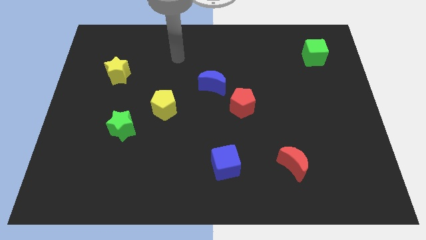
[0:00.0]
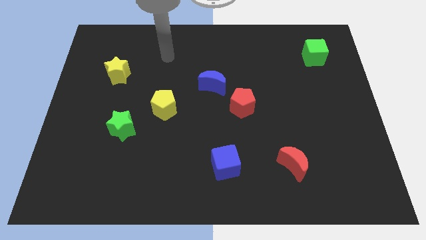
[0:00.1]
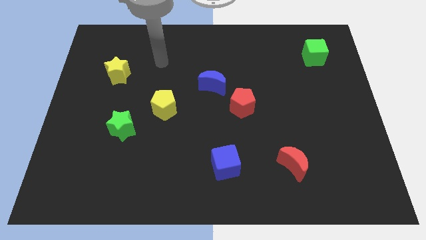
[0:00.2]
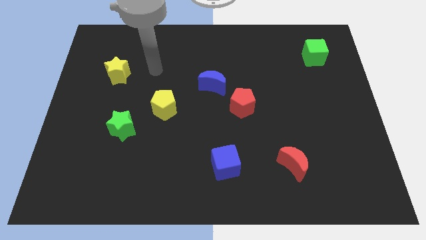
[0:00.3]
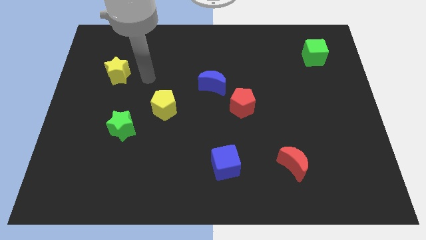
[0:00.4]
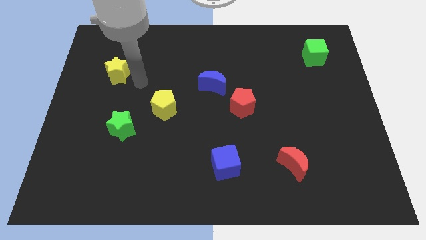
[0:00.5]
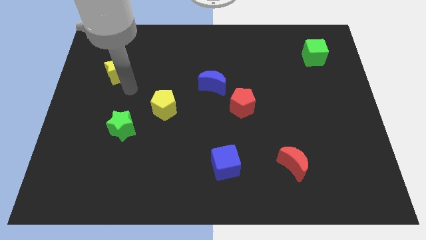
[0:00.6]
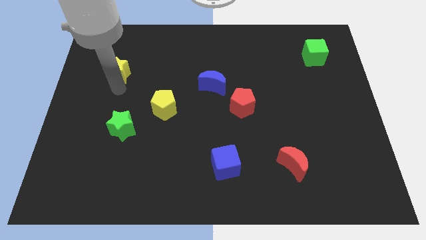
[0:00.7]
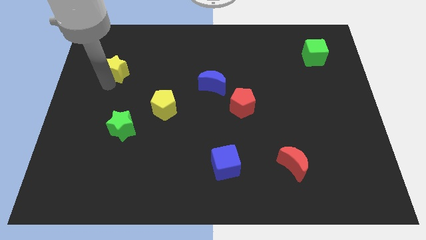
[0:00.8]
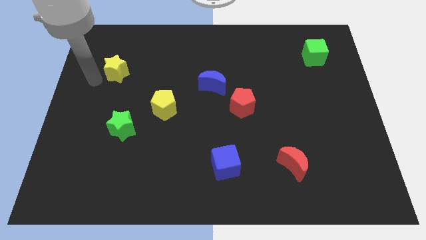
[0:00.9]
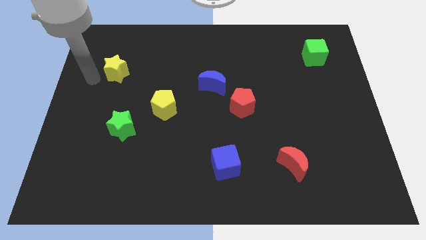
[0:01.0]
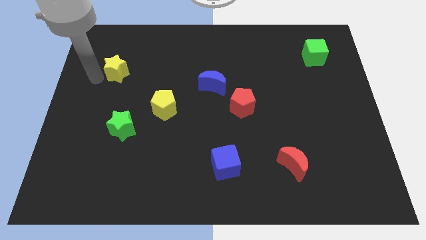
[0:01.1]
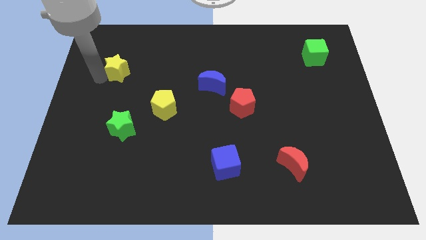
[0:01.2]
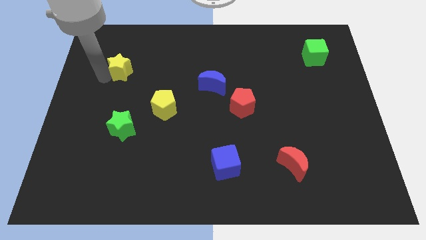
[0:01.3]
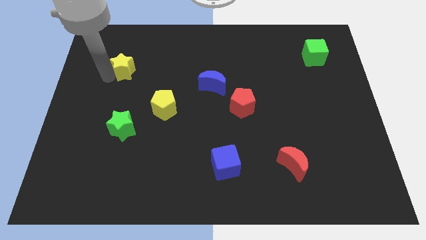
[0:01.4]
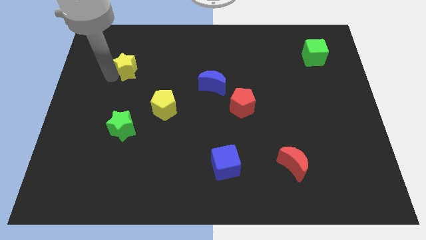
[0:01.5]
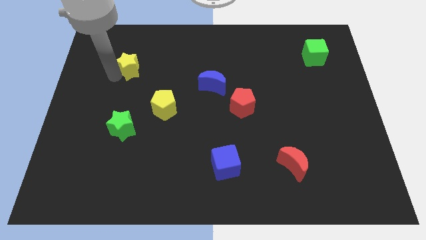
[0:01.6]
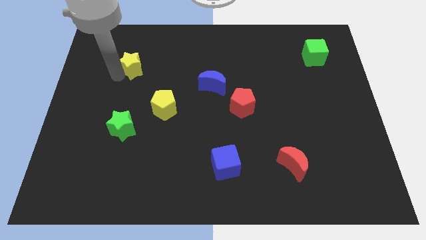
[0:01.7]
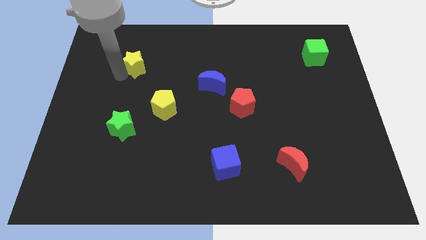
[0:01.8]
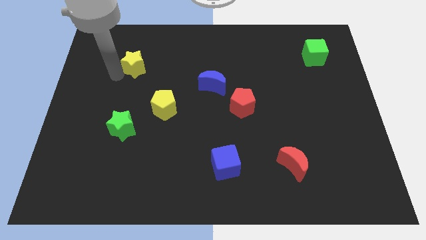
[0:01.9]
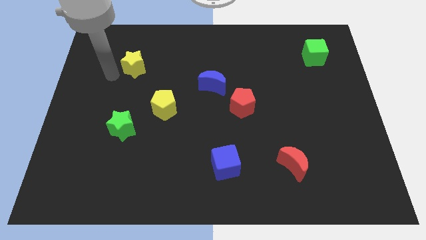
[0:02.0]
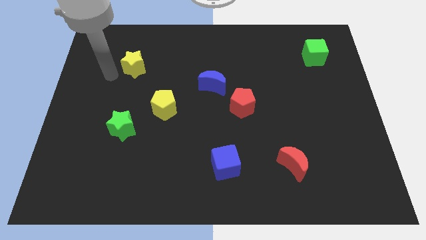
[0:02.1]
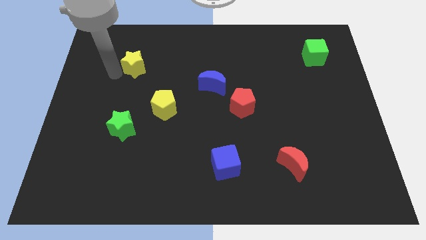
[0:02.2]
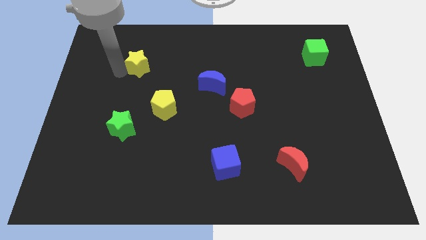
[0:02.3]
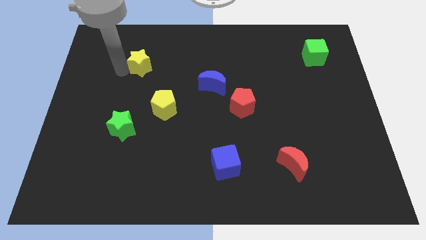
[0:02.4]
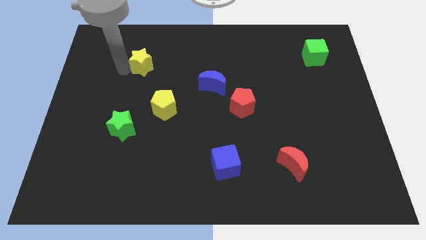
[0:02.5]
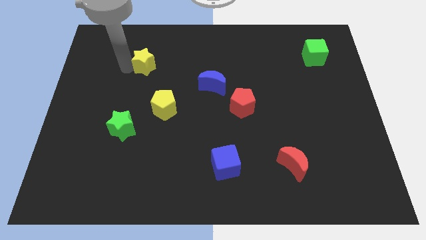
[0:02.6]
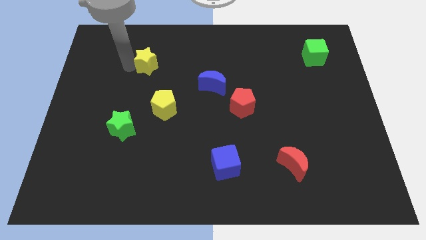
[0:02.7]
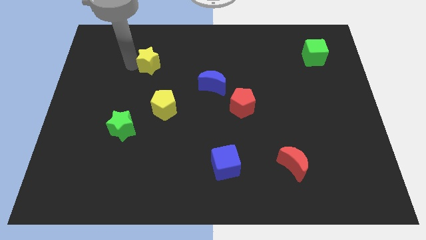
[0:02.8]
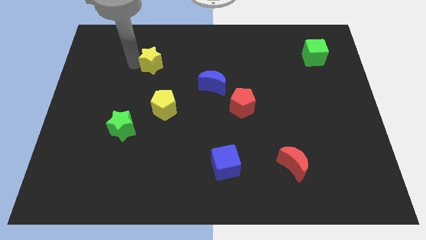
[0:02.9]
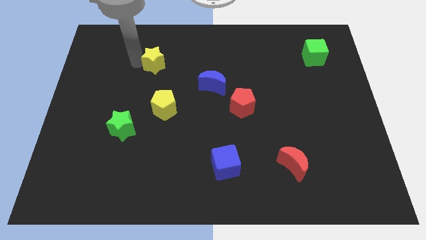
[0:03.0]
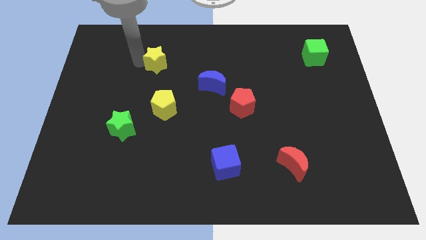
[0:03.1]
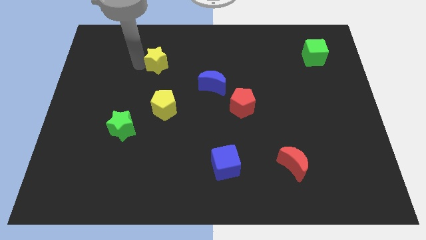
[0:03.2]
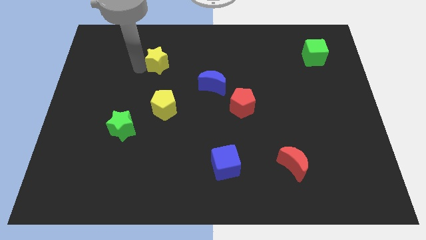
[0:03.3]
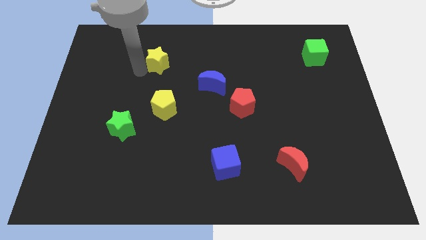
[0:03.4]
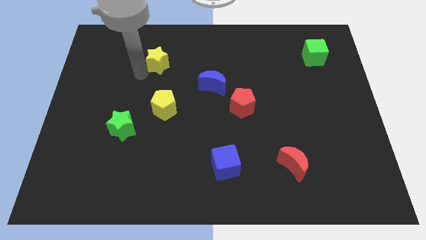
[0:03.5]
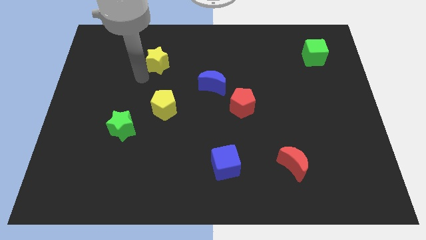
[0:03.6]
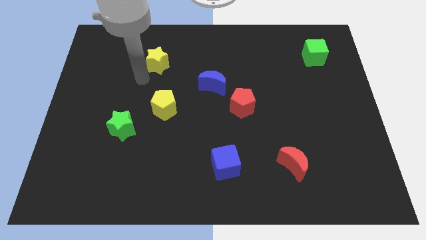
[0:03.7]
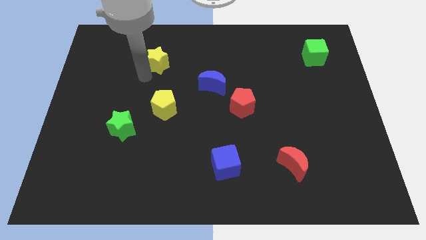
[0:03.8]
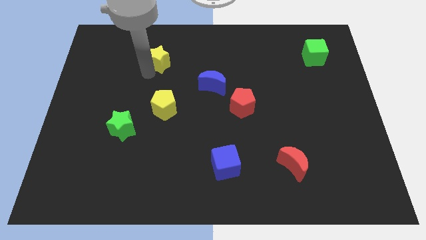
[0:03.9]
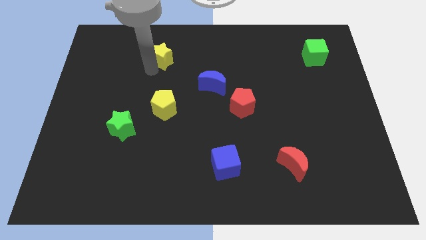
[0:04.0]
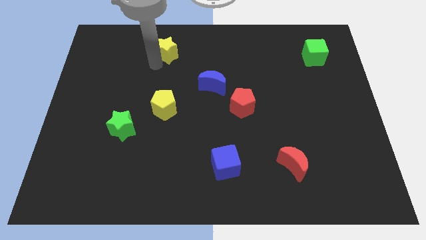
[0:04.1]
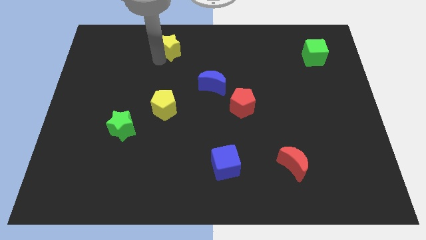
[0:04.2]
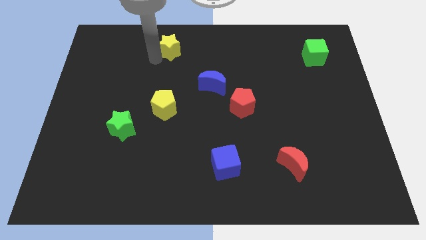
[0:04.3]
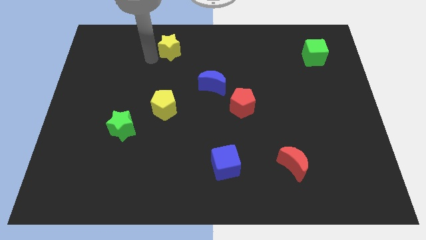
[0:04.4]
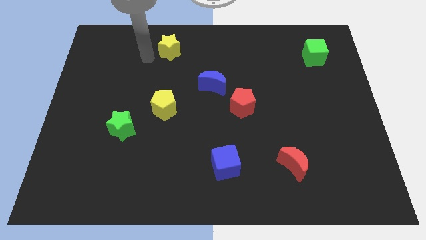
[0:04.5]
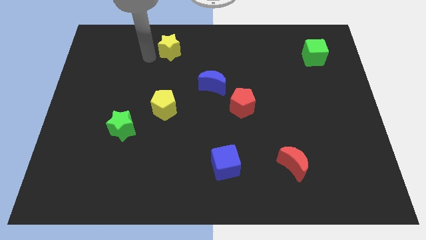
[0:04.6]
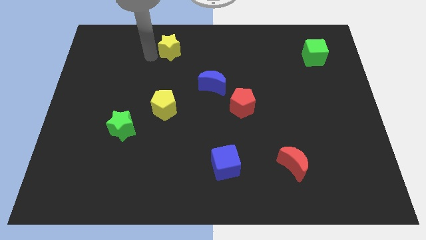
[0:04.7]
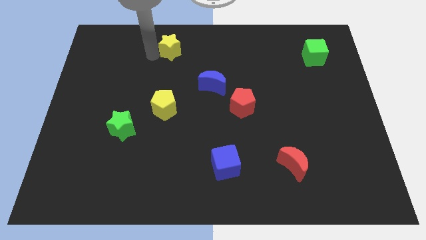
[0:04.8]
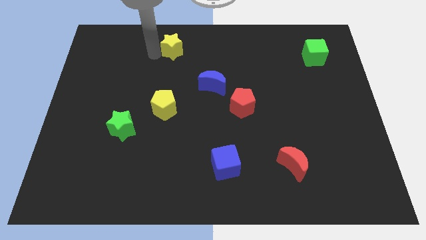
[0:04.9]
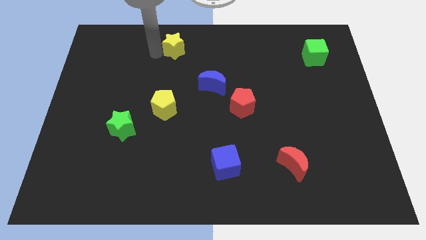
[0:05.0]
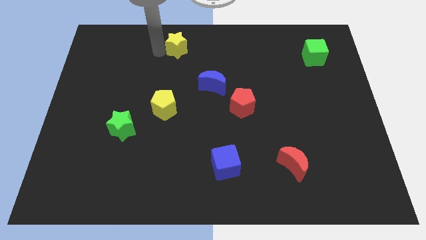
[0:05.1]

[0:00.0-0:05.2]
put the yellow star to the top
